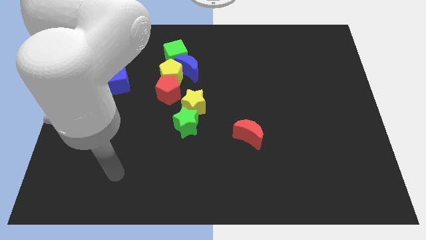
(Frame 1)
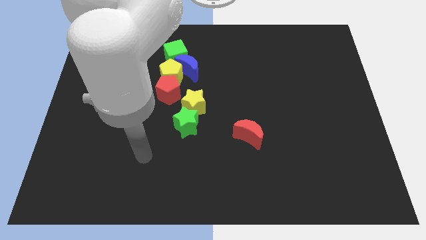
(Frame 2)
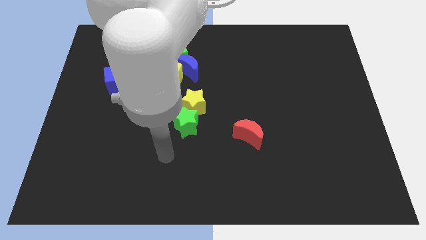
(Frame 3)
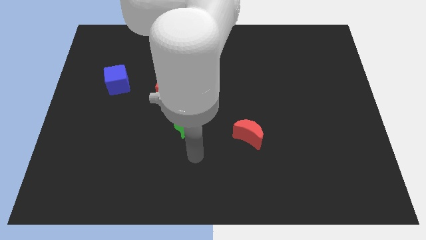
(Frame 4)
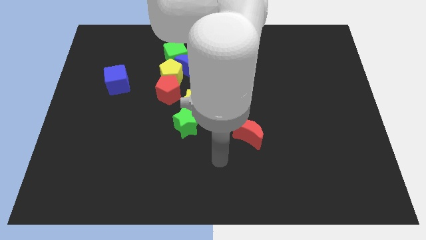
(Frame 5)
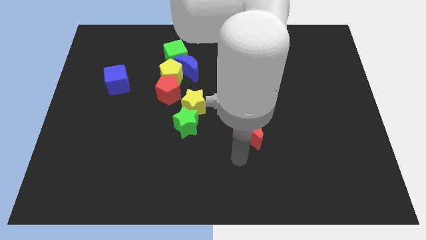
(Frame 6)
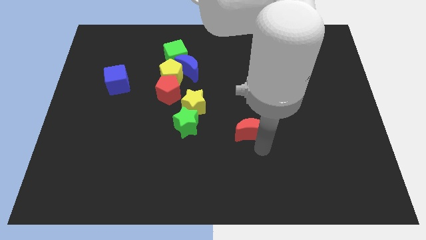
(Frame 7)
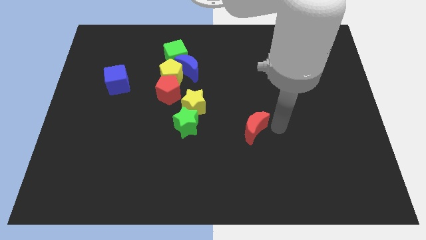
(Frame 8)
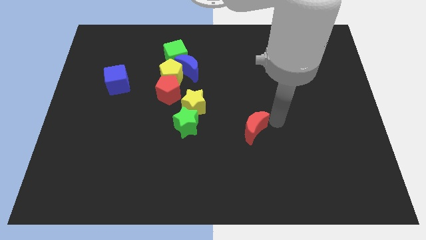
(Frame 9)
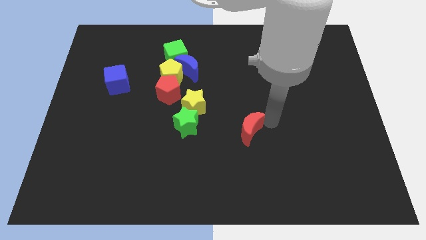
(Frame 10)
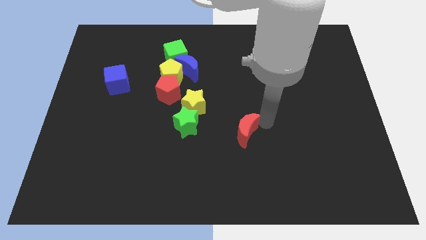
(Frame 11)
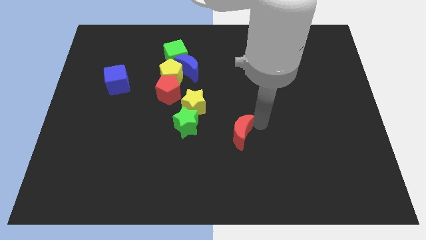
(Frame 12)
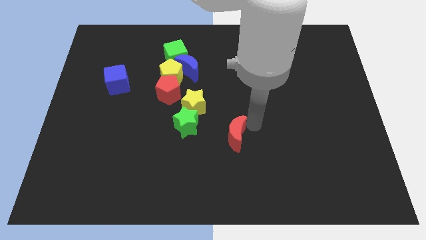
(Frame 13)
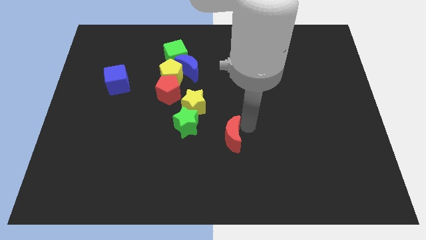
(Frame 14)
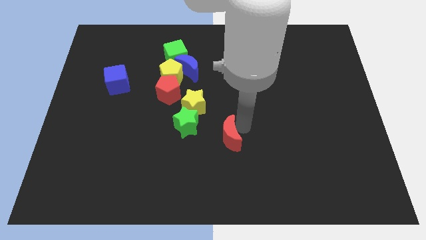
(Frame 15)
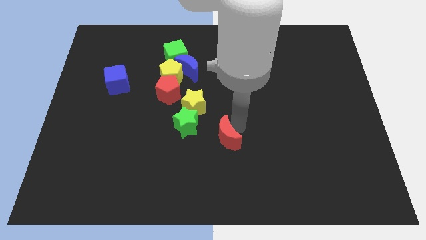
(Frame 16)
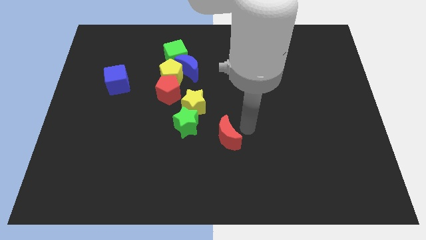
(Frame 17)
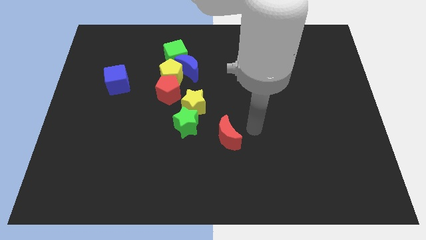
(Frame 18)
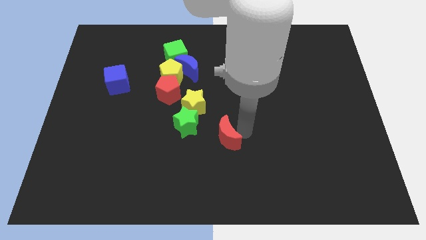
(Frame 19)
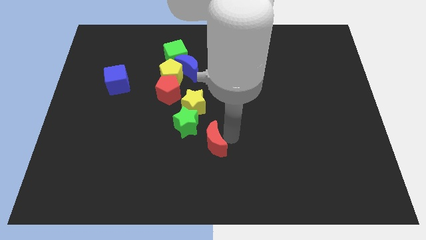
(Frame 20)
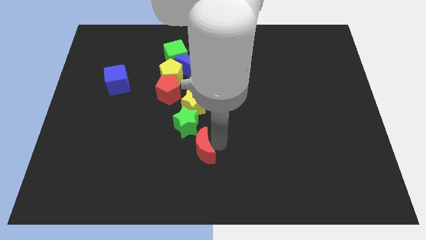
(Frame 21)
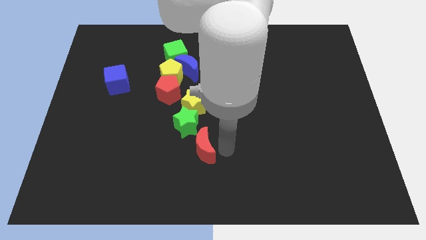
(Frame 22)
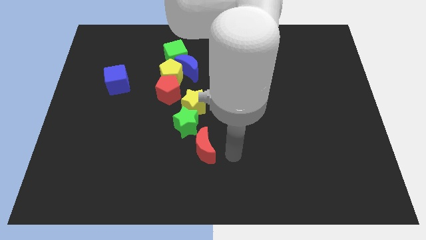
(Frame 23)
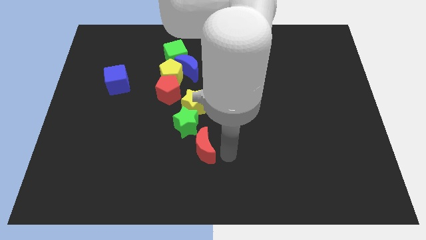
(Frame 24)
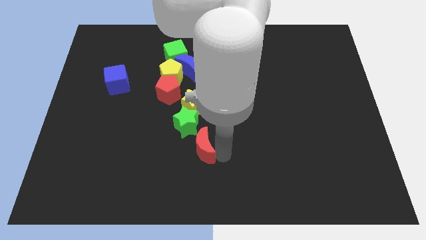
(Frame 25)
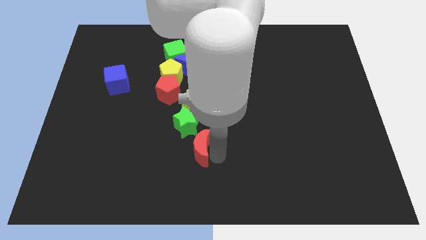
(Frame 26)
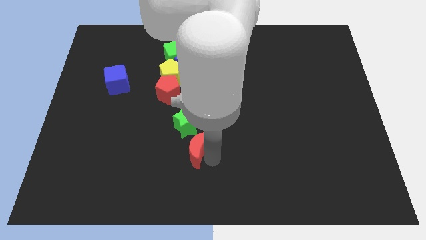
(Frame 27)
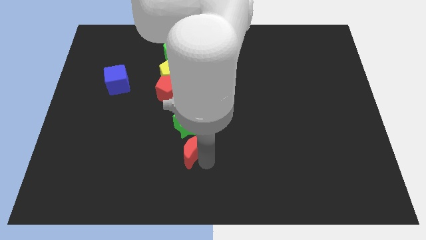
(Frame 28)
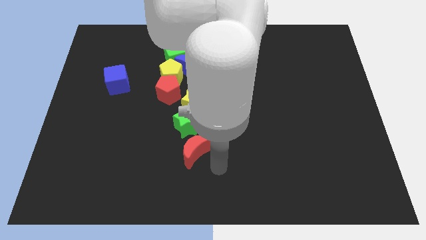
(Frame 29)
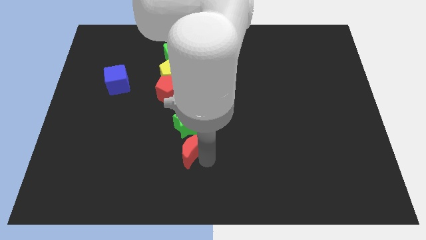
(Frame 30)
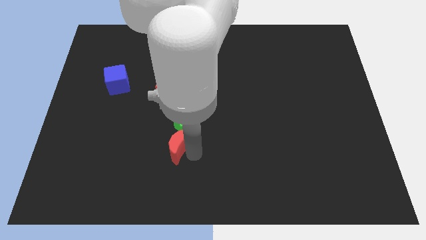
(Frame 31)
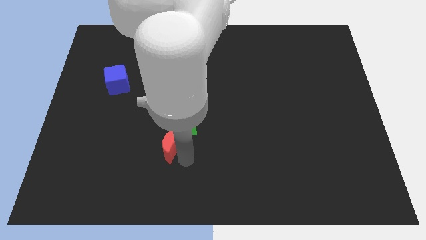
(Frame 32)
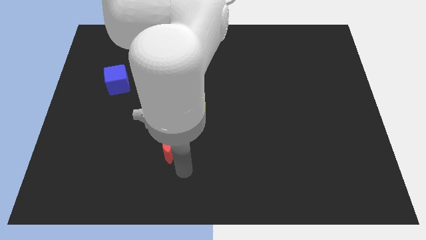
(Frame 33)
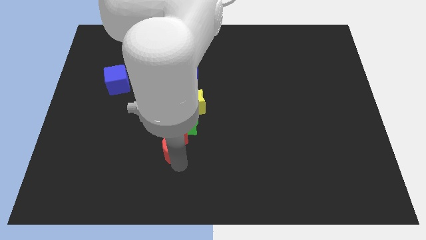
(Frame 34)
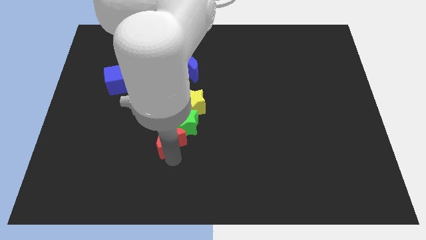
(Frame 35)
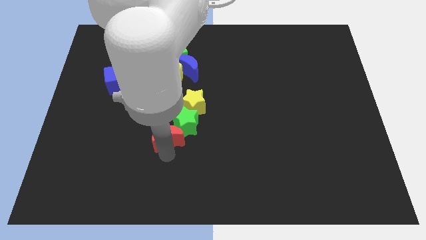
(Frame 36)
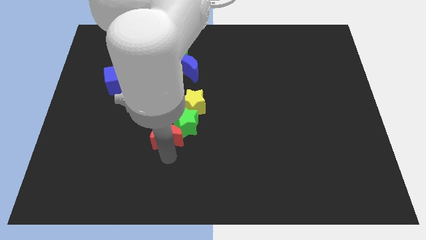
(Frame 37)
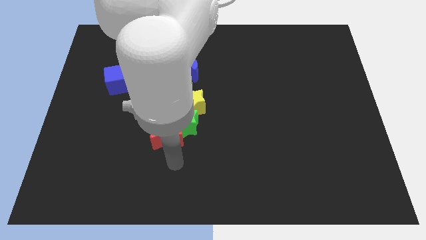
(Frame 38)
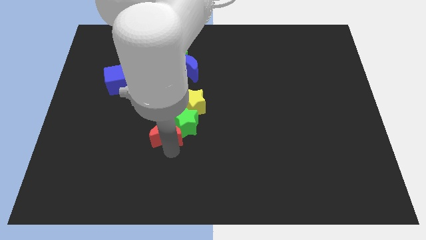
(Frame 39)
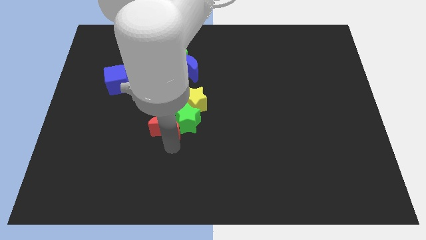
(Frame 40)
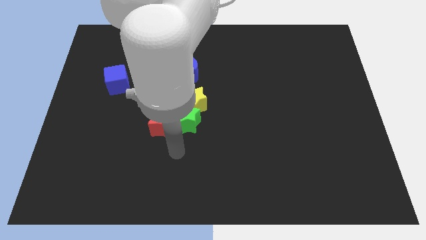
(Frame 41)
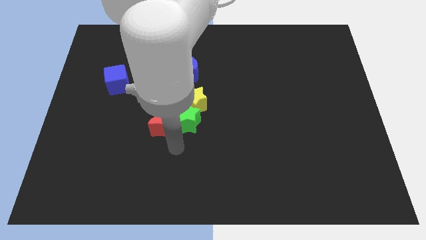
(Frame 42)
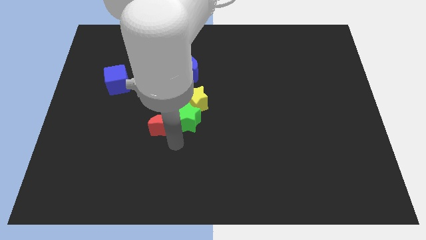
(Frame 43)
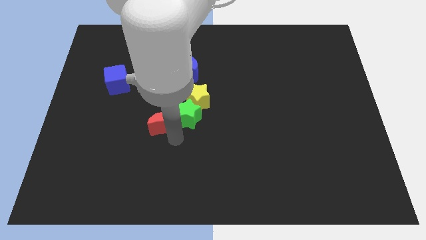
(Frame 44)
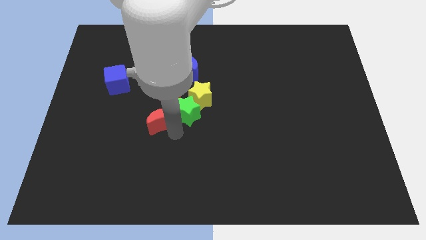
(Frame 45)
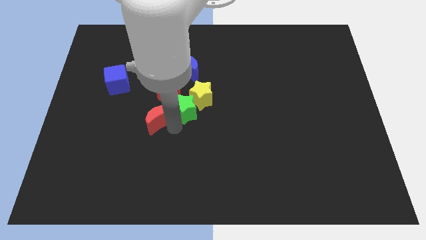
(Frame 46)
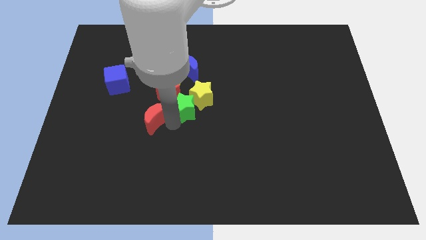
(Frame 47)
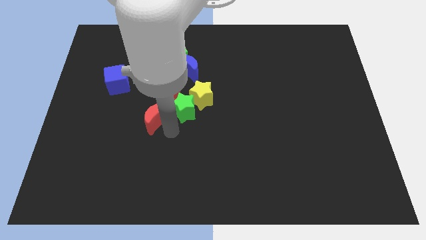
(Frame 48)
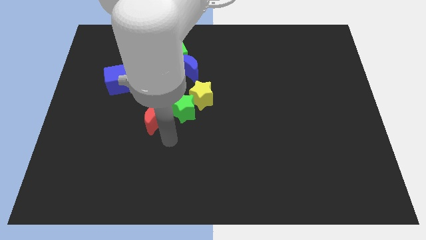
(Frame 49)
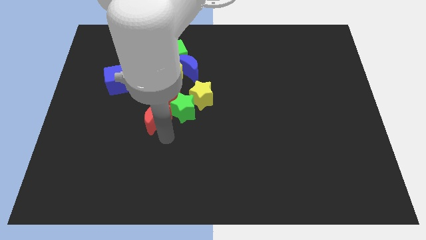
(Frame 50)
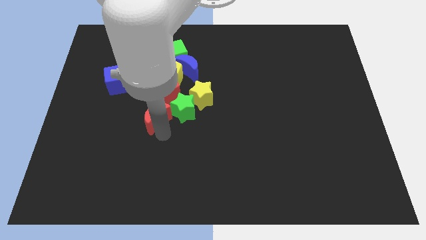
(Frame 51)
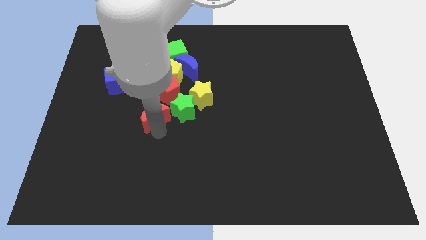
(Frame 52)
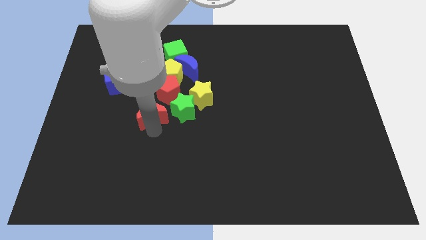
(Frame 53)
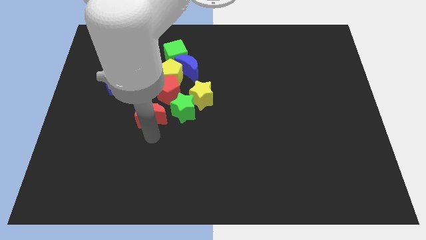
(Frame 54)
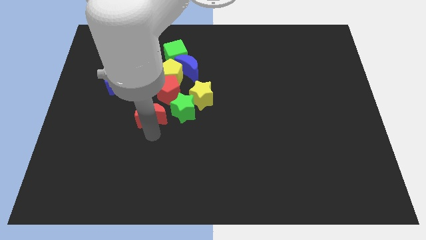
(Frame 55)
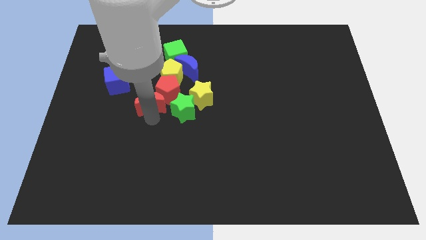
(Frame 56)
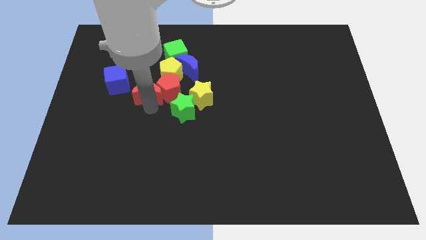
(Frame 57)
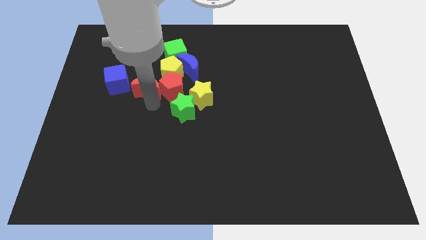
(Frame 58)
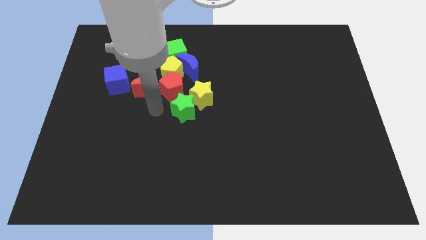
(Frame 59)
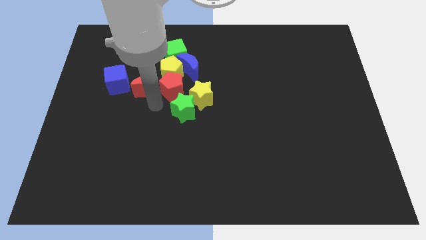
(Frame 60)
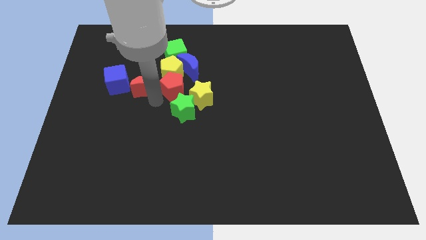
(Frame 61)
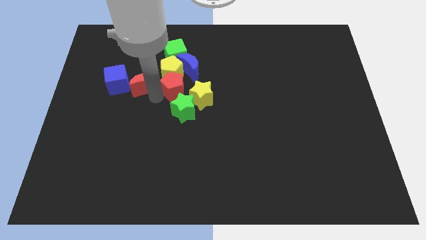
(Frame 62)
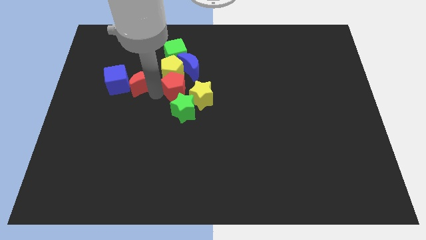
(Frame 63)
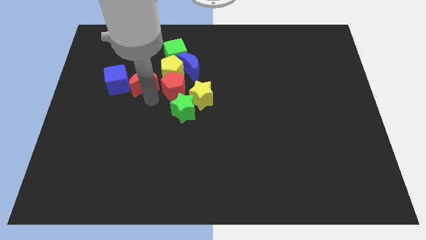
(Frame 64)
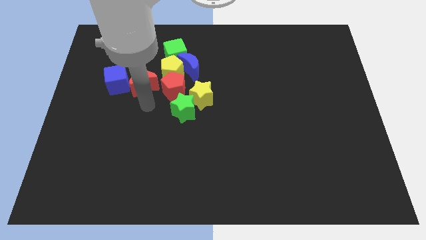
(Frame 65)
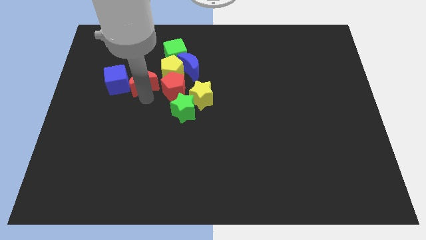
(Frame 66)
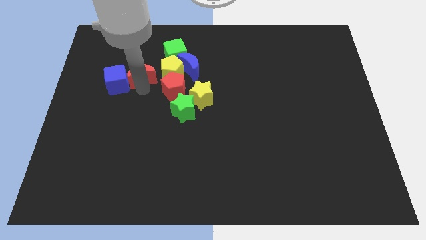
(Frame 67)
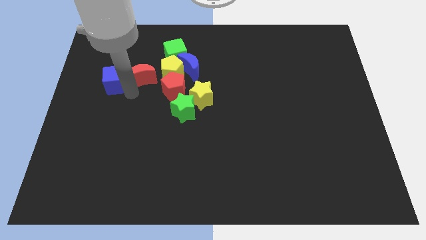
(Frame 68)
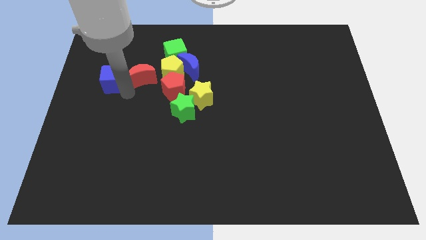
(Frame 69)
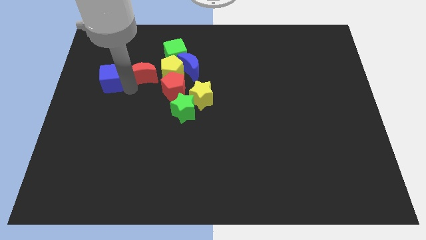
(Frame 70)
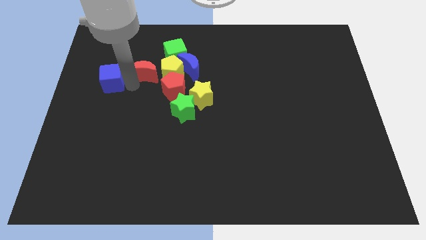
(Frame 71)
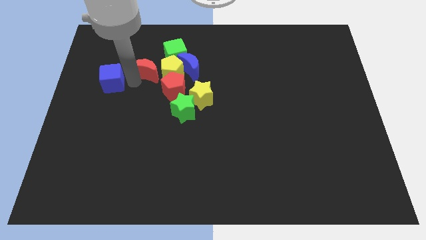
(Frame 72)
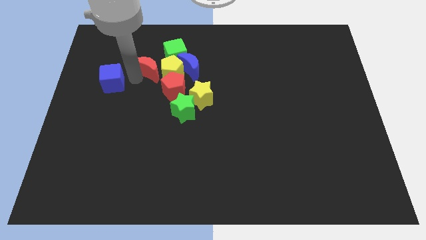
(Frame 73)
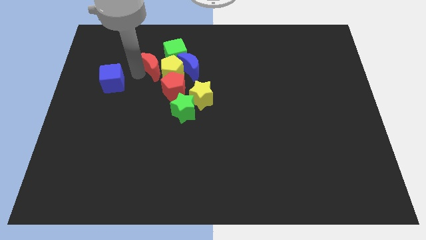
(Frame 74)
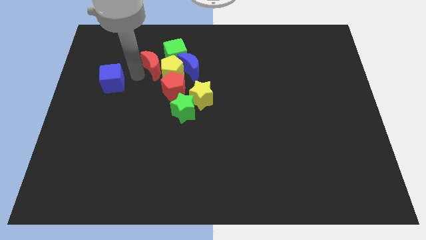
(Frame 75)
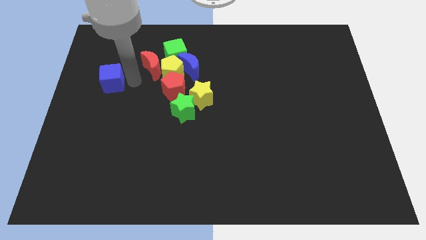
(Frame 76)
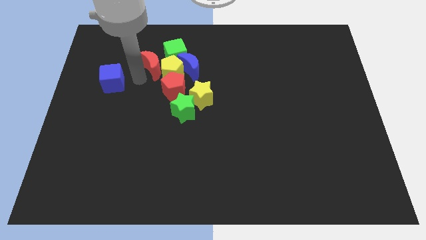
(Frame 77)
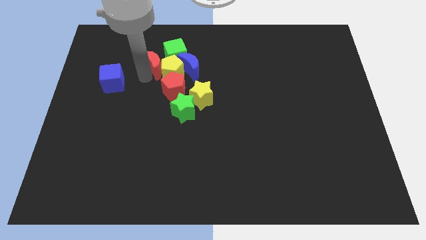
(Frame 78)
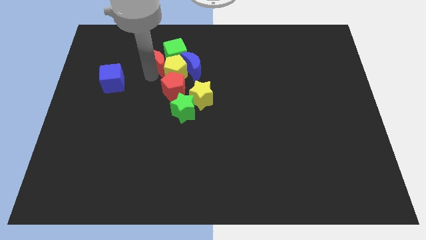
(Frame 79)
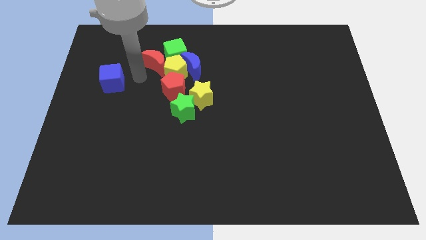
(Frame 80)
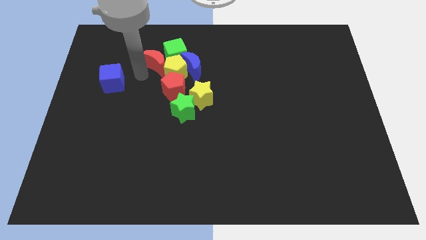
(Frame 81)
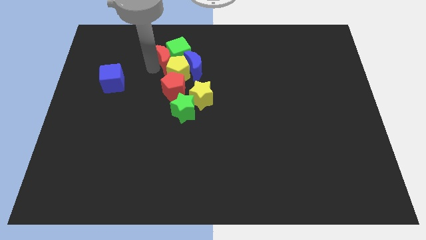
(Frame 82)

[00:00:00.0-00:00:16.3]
put the red moon to the top left of the blue moon
